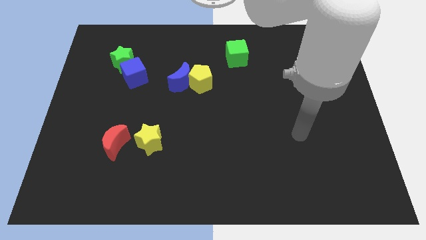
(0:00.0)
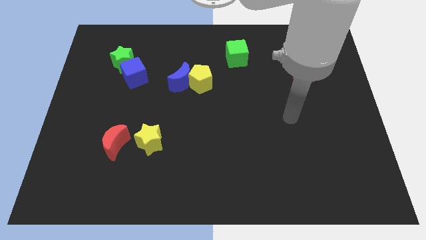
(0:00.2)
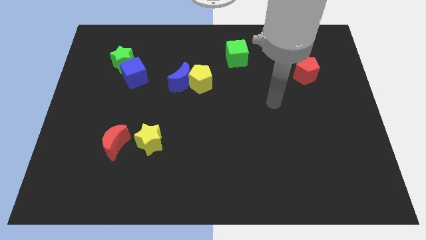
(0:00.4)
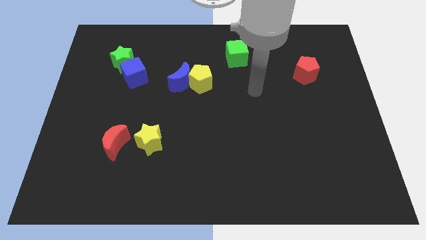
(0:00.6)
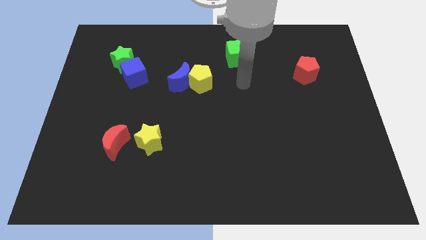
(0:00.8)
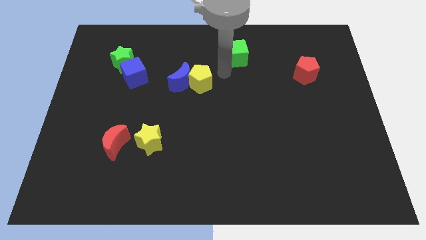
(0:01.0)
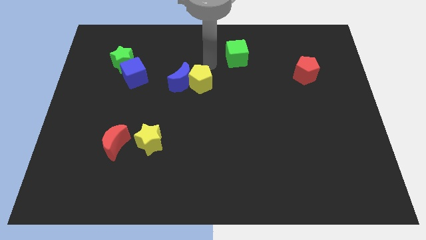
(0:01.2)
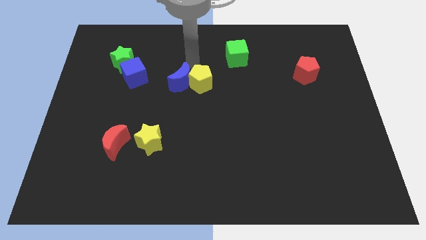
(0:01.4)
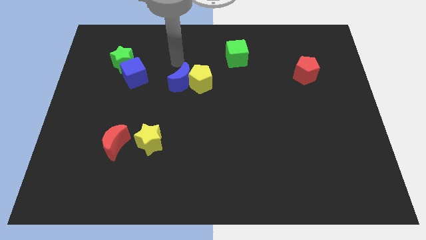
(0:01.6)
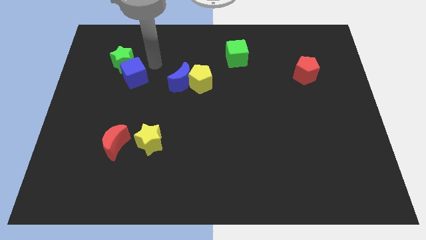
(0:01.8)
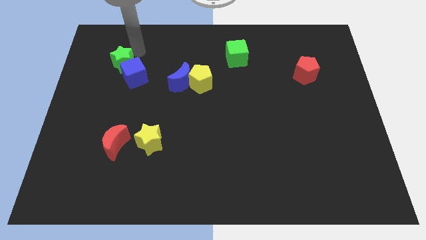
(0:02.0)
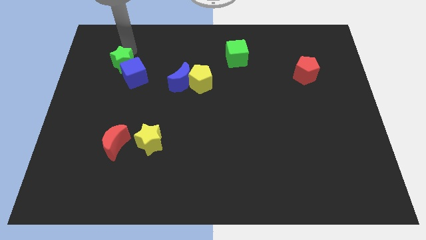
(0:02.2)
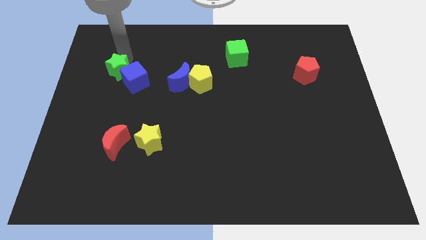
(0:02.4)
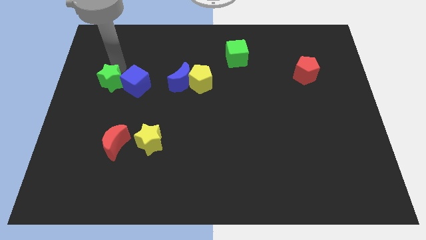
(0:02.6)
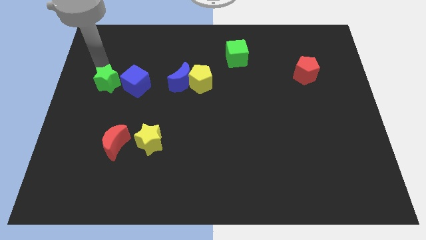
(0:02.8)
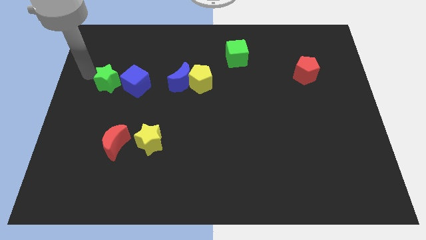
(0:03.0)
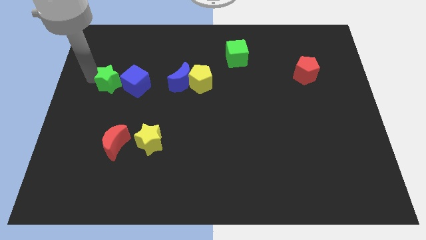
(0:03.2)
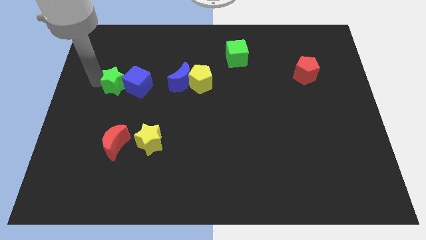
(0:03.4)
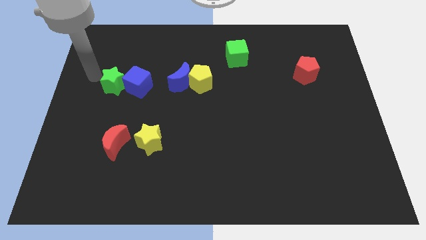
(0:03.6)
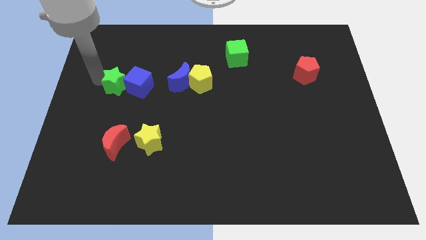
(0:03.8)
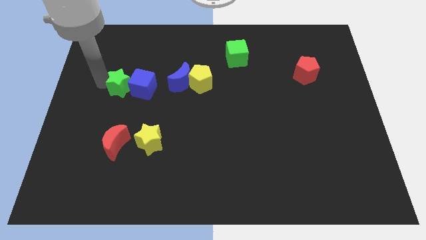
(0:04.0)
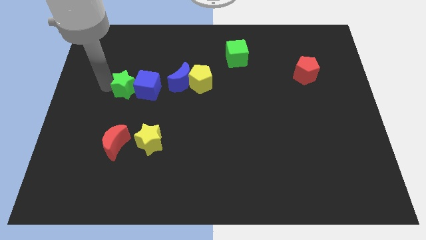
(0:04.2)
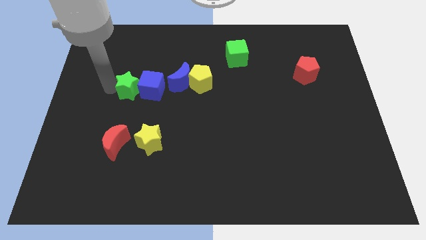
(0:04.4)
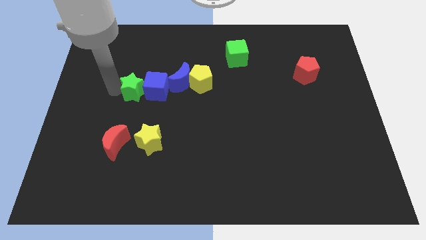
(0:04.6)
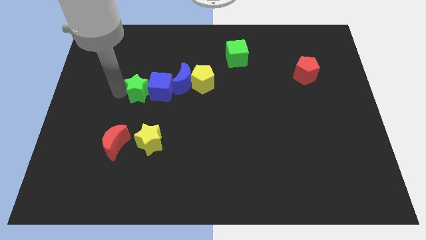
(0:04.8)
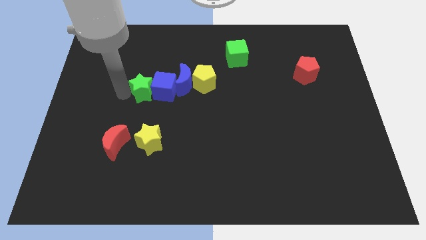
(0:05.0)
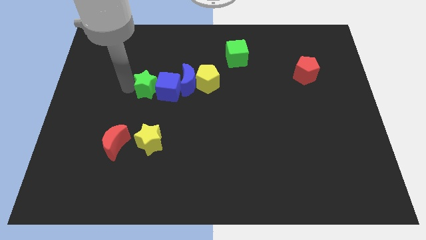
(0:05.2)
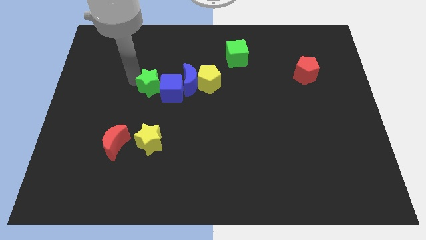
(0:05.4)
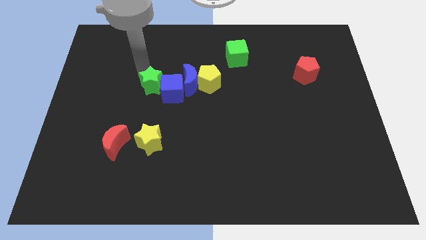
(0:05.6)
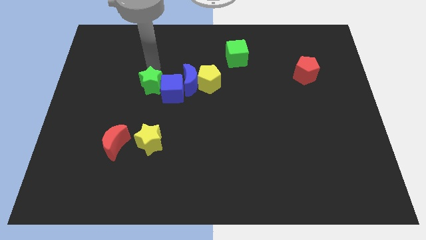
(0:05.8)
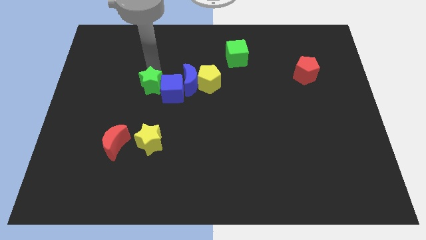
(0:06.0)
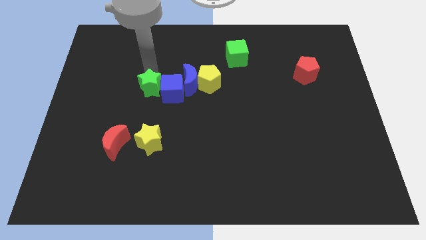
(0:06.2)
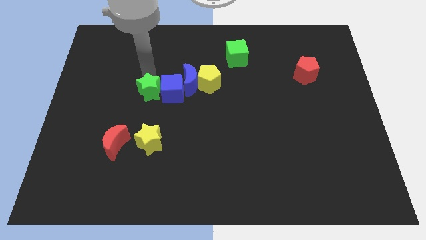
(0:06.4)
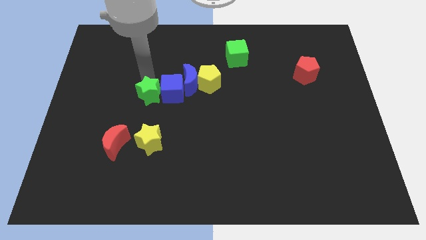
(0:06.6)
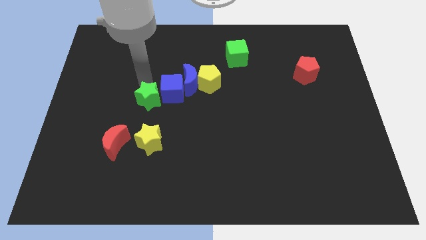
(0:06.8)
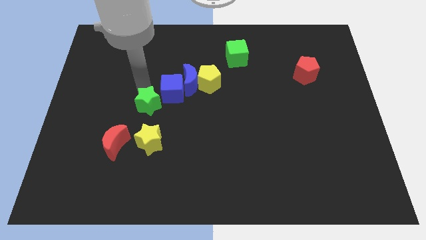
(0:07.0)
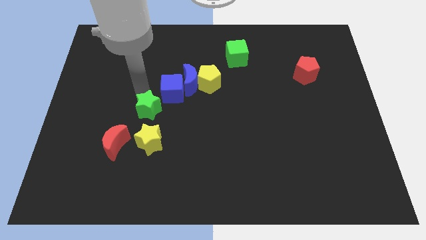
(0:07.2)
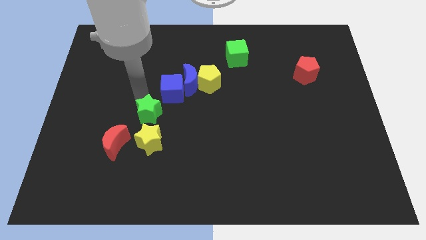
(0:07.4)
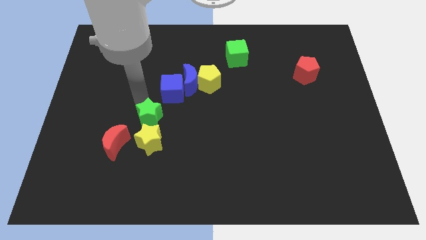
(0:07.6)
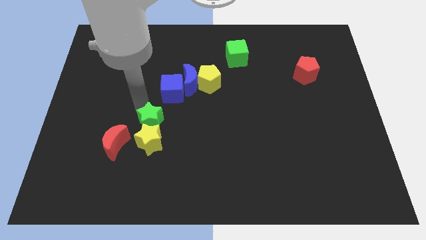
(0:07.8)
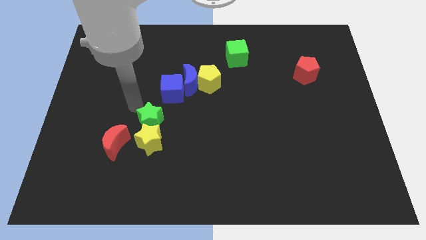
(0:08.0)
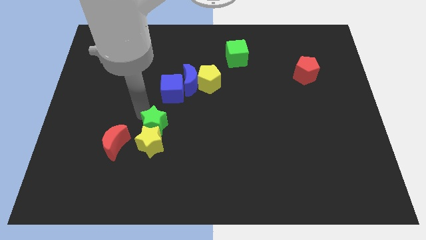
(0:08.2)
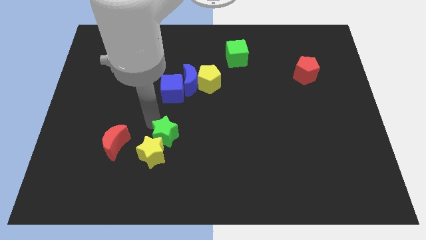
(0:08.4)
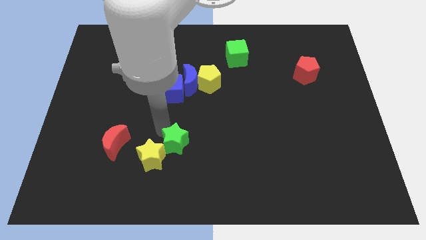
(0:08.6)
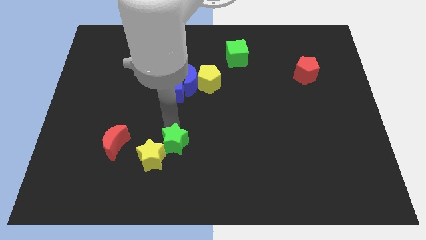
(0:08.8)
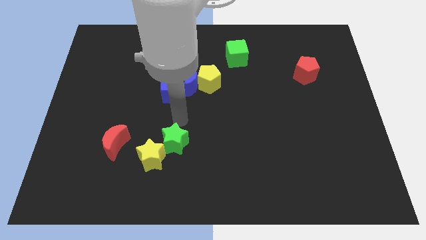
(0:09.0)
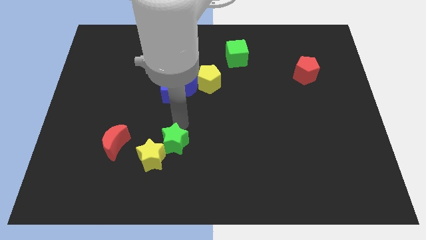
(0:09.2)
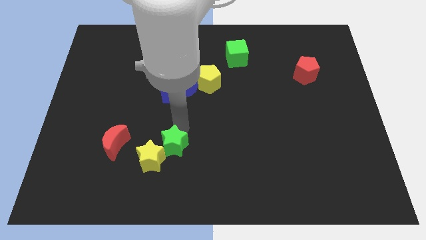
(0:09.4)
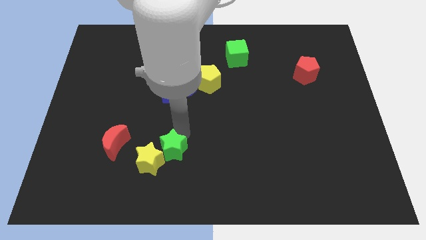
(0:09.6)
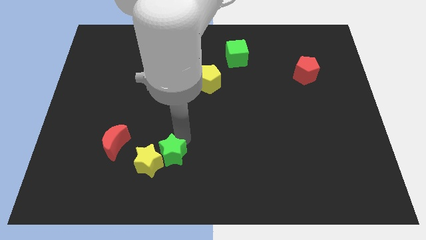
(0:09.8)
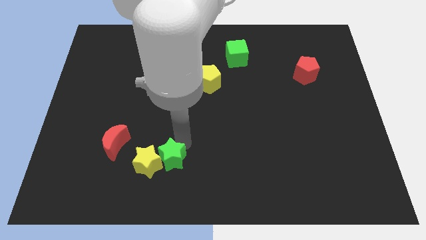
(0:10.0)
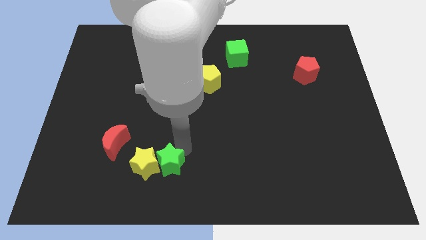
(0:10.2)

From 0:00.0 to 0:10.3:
push the green star to the bottom side

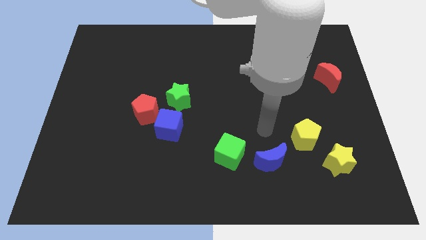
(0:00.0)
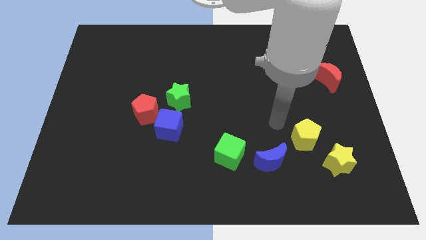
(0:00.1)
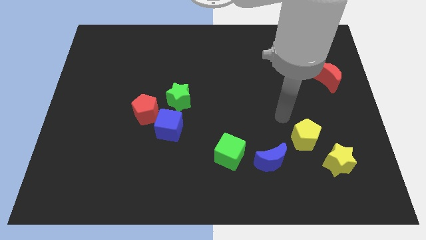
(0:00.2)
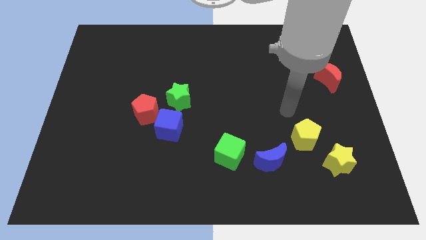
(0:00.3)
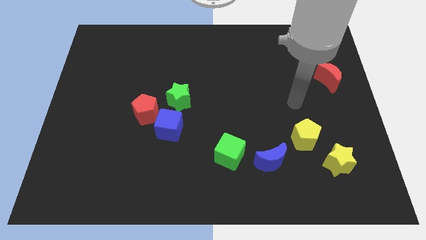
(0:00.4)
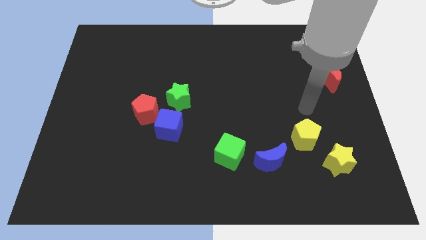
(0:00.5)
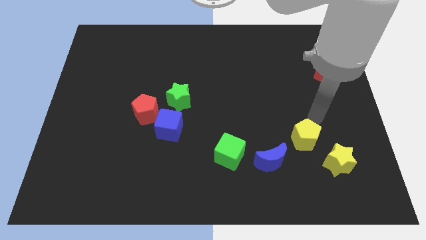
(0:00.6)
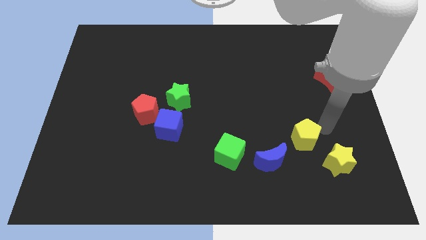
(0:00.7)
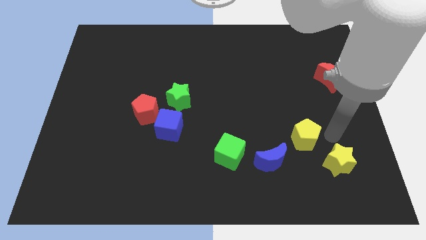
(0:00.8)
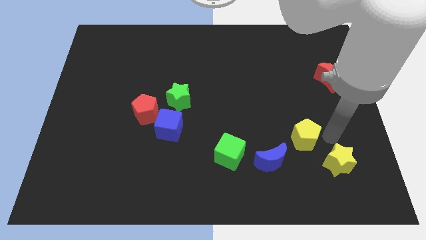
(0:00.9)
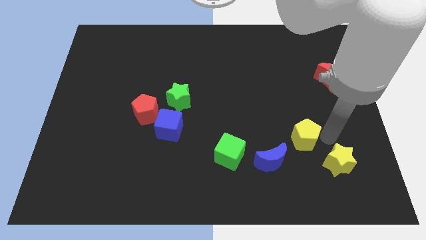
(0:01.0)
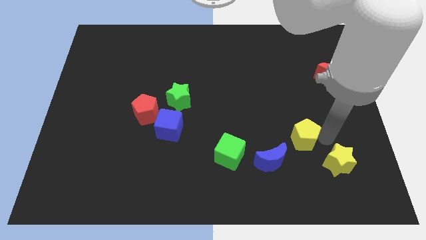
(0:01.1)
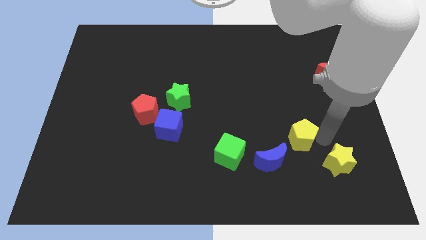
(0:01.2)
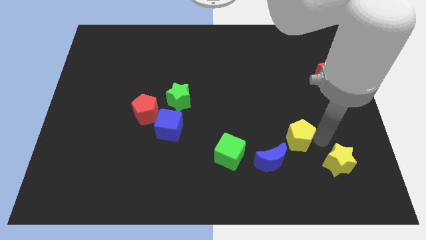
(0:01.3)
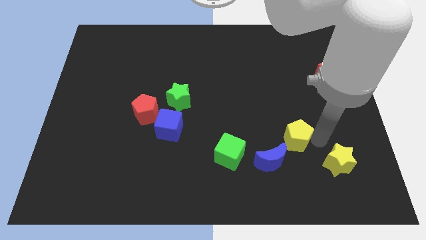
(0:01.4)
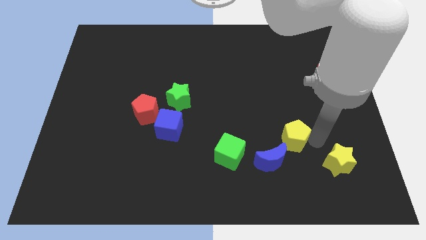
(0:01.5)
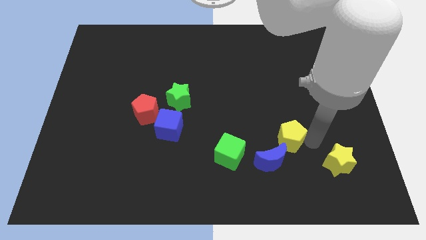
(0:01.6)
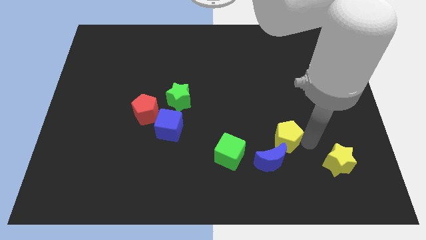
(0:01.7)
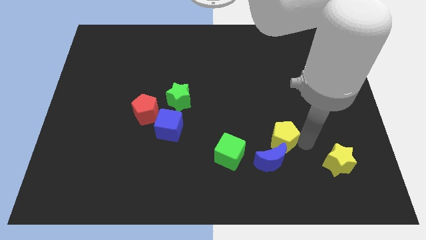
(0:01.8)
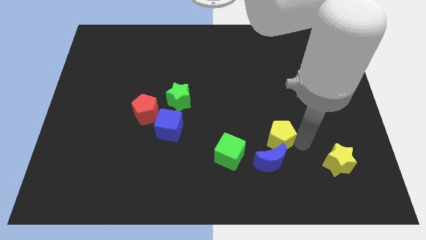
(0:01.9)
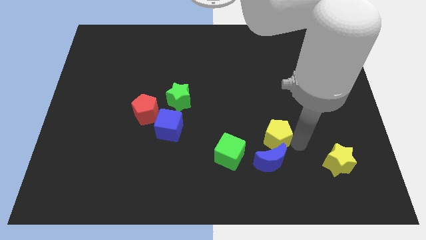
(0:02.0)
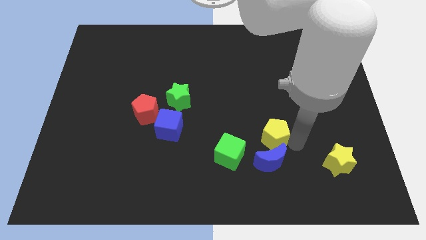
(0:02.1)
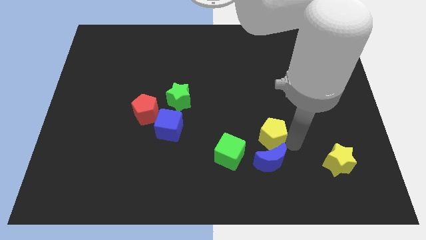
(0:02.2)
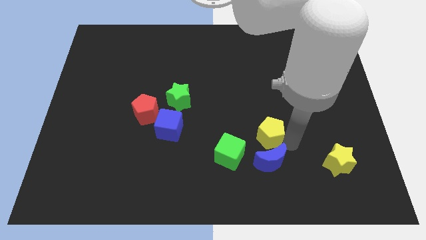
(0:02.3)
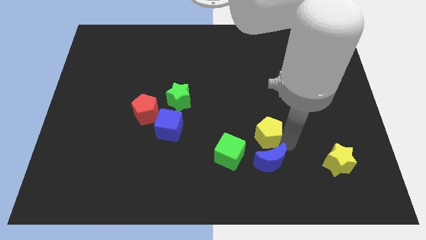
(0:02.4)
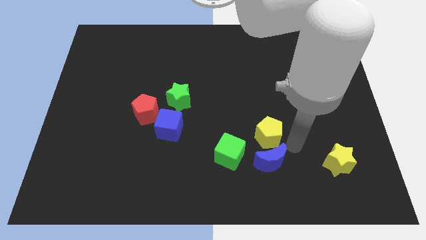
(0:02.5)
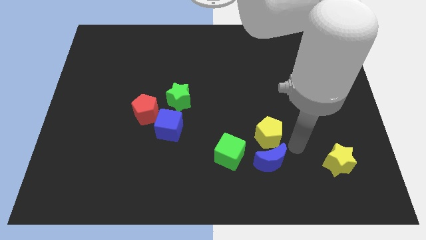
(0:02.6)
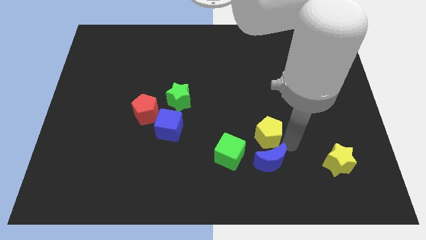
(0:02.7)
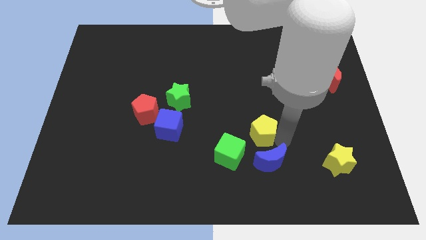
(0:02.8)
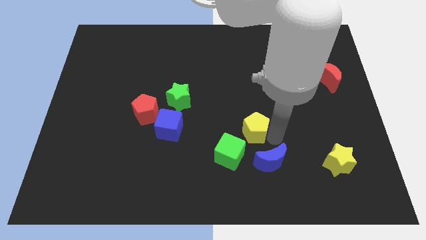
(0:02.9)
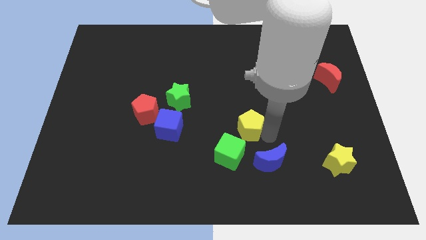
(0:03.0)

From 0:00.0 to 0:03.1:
move the yellow pentagon to the center of the board
